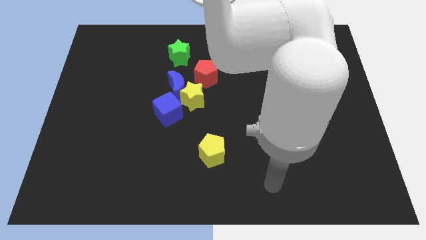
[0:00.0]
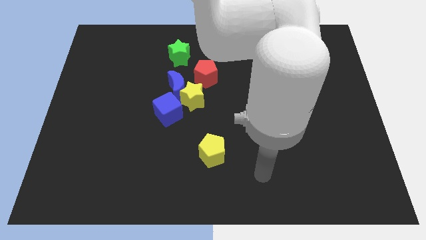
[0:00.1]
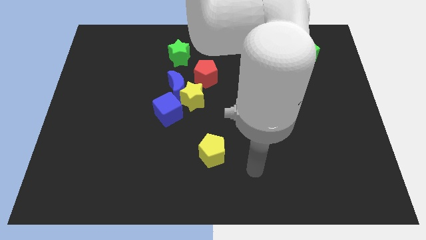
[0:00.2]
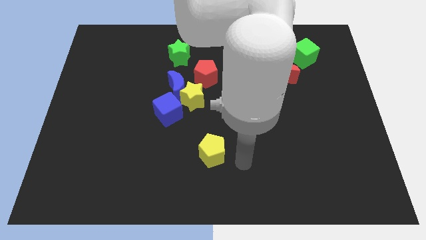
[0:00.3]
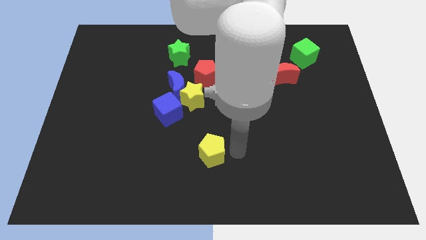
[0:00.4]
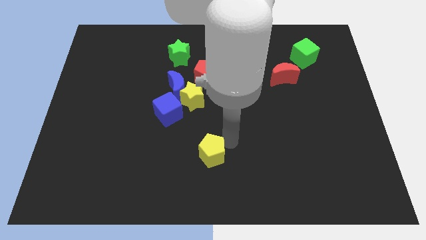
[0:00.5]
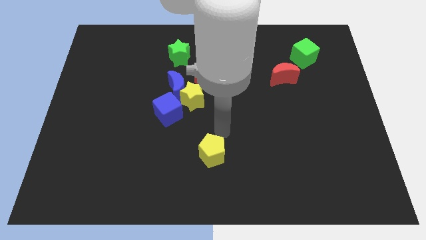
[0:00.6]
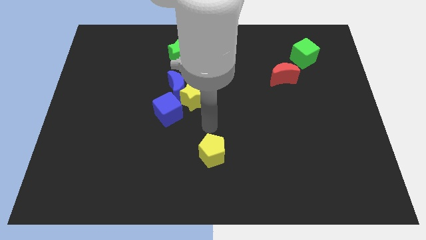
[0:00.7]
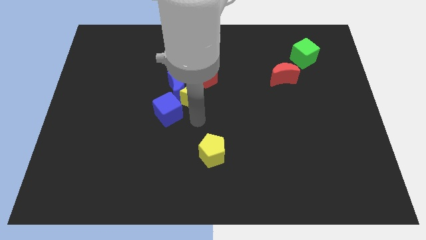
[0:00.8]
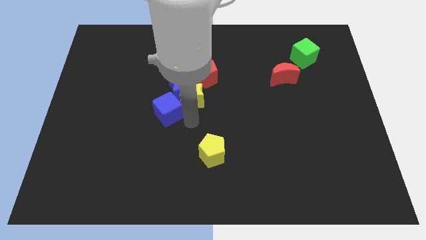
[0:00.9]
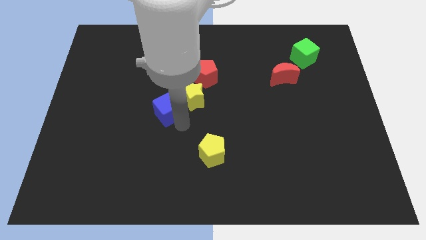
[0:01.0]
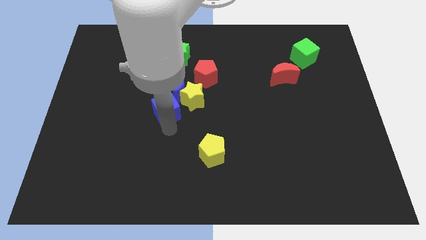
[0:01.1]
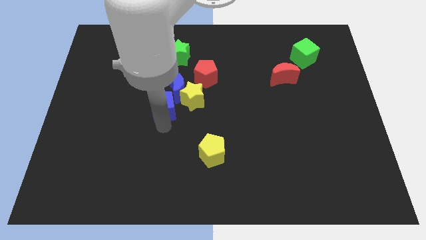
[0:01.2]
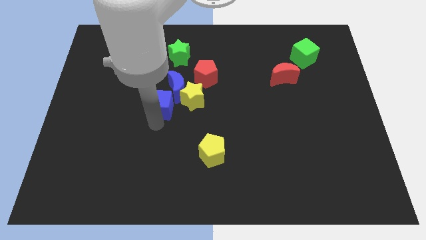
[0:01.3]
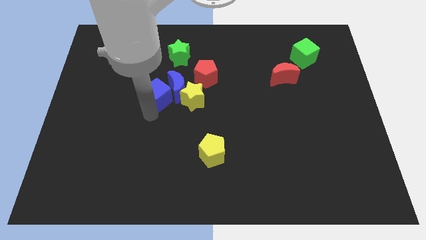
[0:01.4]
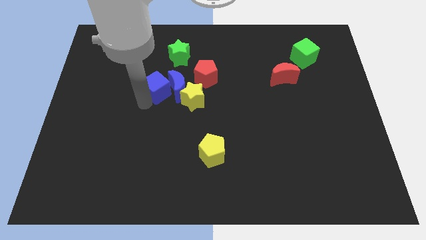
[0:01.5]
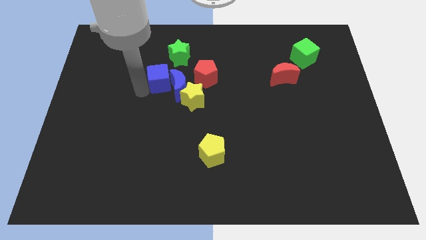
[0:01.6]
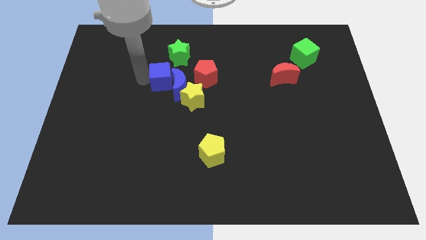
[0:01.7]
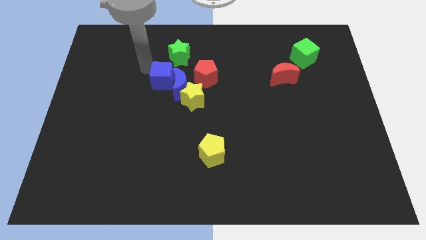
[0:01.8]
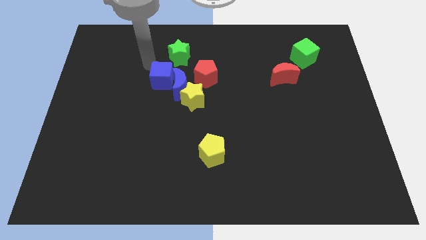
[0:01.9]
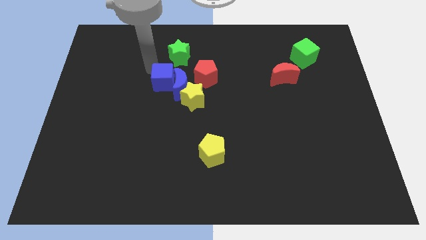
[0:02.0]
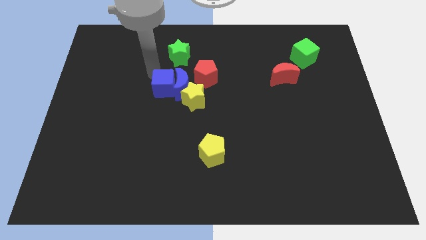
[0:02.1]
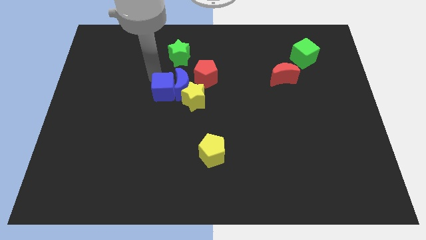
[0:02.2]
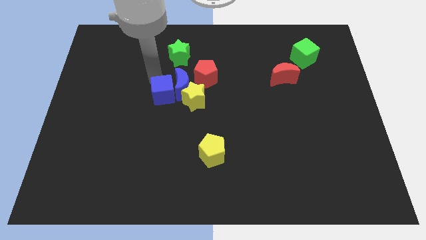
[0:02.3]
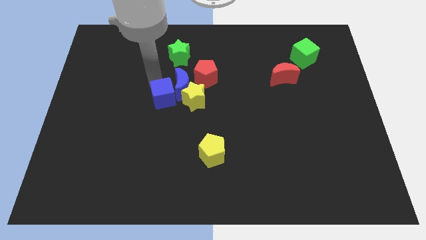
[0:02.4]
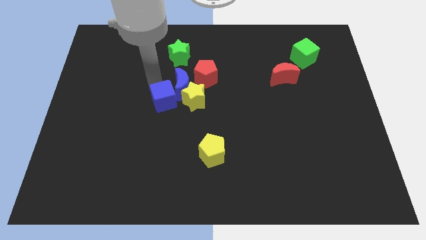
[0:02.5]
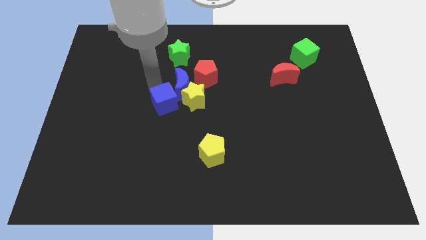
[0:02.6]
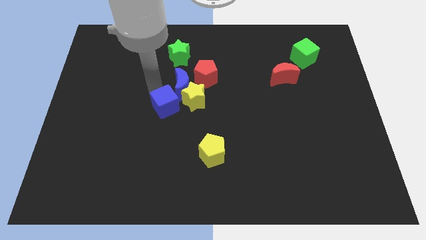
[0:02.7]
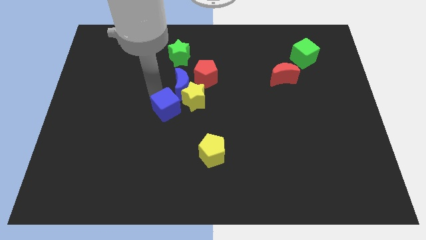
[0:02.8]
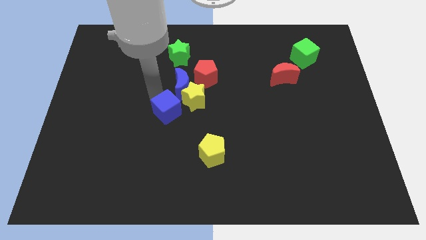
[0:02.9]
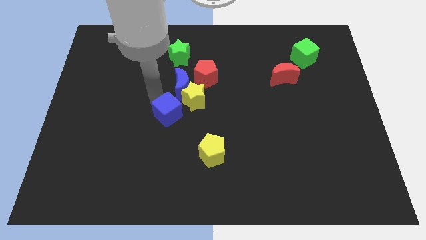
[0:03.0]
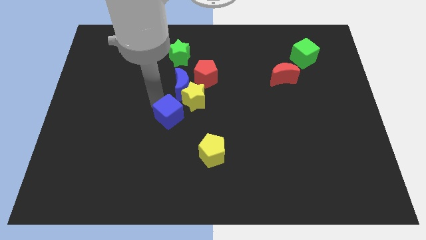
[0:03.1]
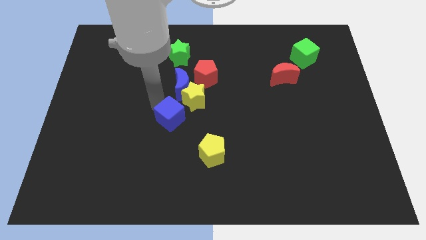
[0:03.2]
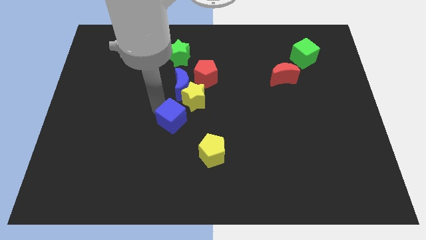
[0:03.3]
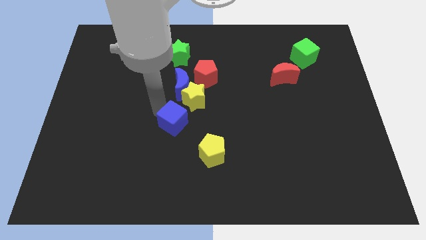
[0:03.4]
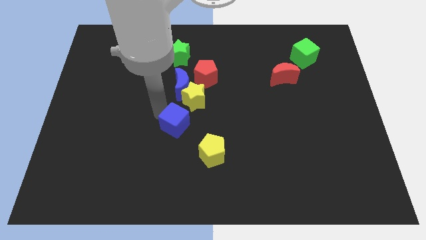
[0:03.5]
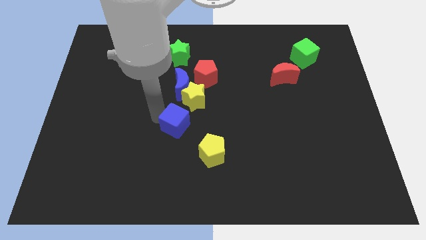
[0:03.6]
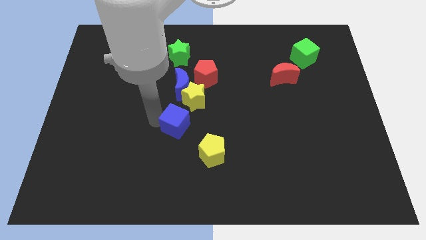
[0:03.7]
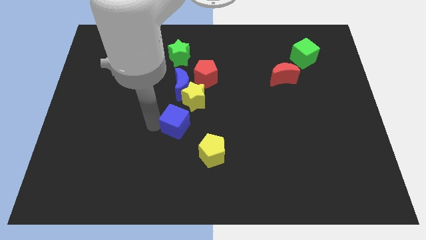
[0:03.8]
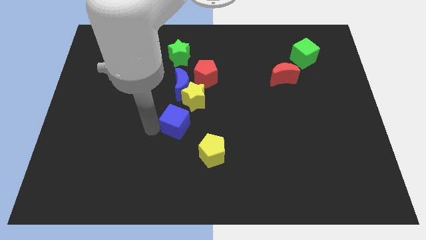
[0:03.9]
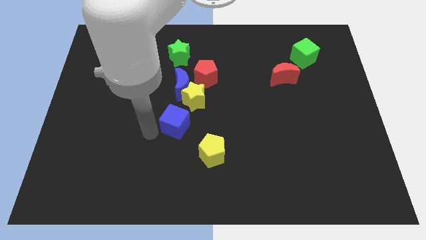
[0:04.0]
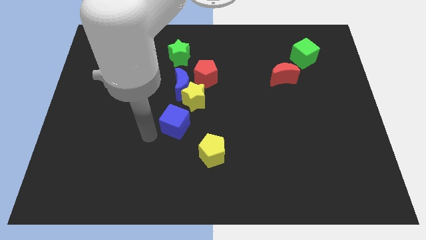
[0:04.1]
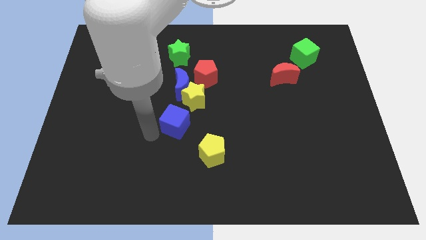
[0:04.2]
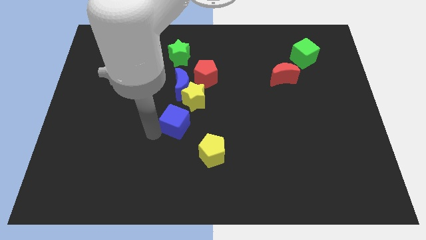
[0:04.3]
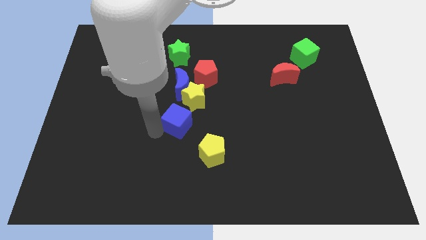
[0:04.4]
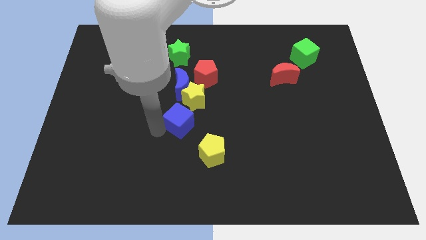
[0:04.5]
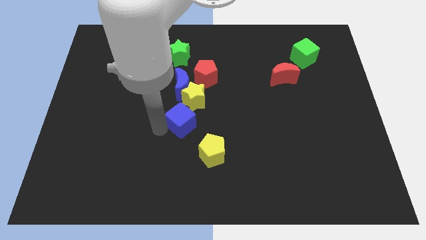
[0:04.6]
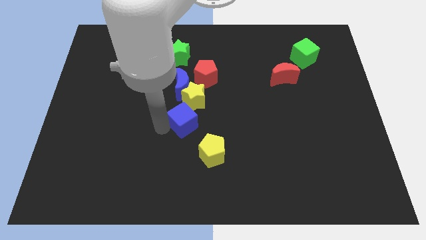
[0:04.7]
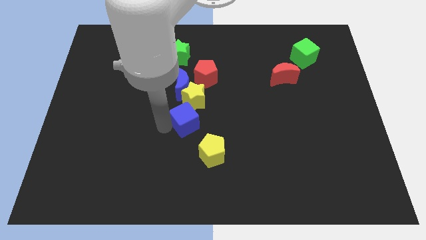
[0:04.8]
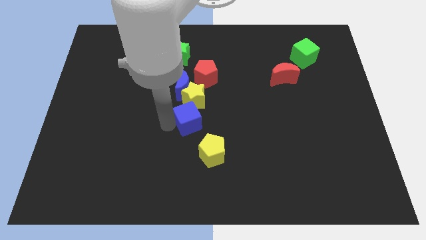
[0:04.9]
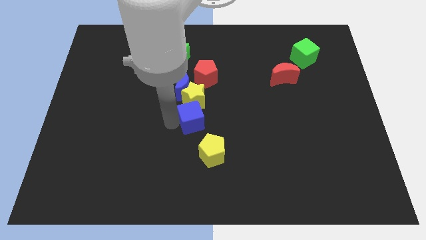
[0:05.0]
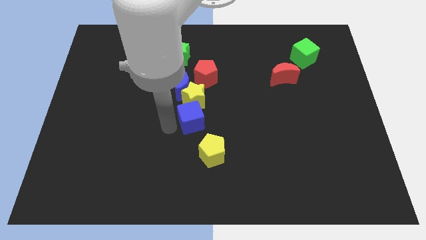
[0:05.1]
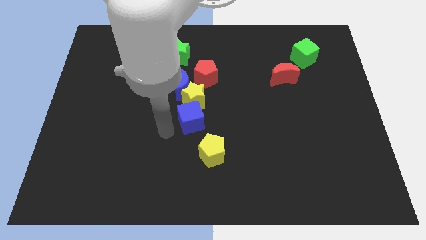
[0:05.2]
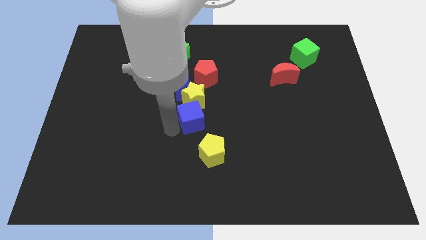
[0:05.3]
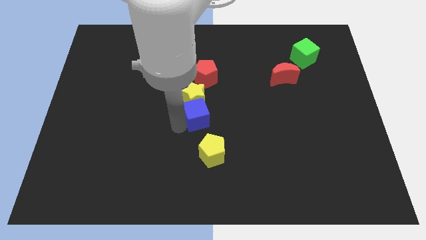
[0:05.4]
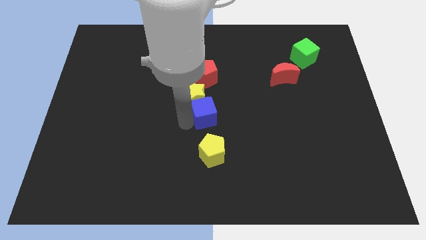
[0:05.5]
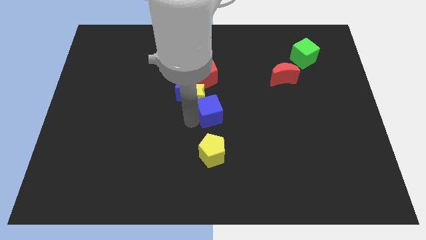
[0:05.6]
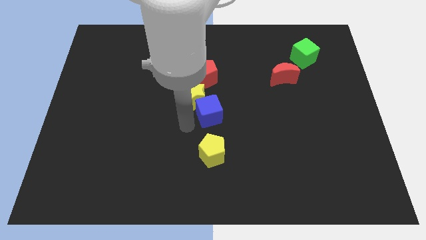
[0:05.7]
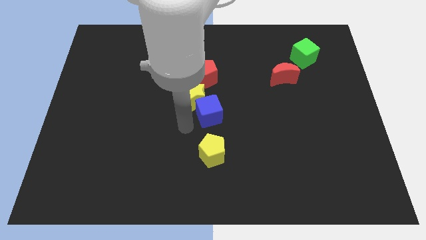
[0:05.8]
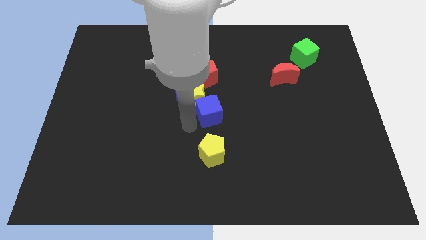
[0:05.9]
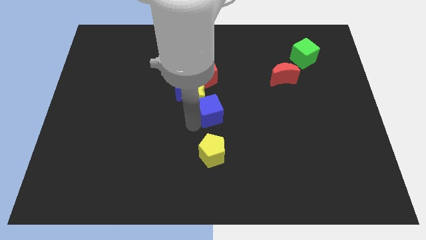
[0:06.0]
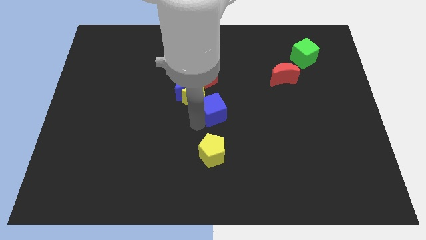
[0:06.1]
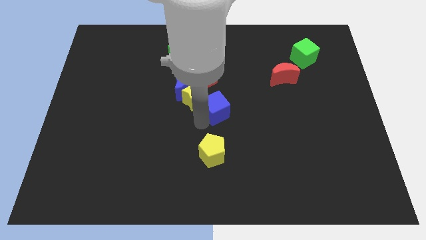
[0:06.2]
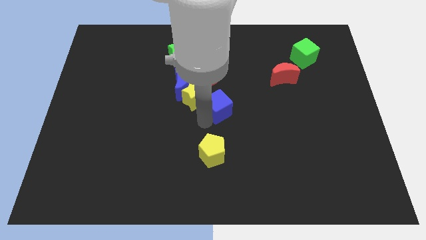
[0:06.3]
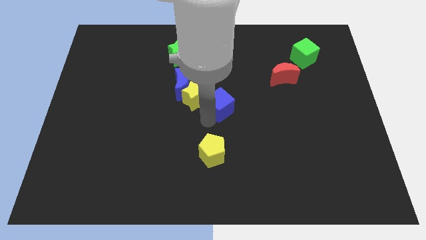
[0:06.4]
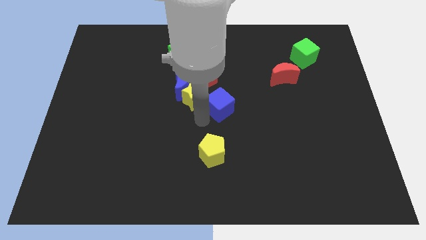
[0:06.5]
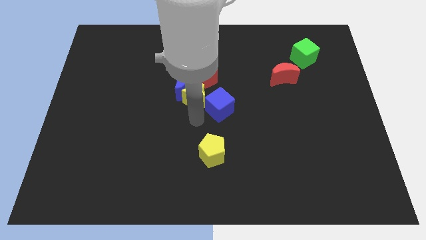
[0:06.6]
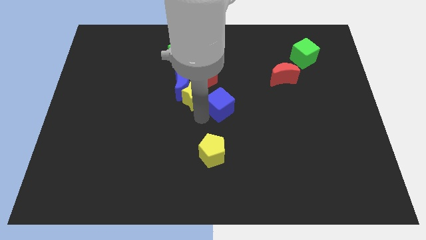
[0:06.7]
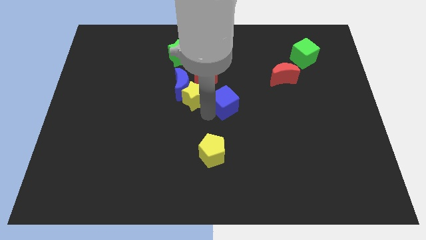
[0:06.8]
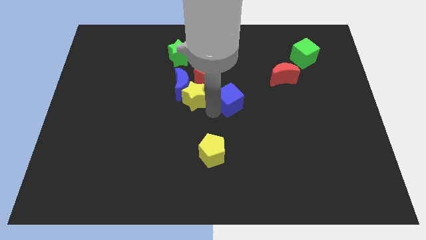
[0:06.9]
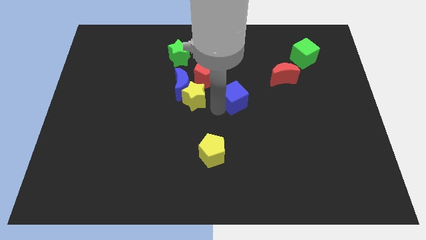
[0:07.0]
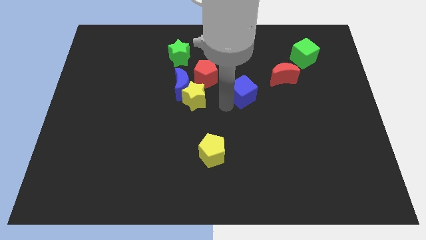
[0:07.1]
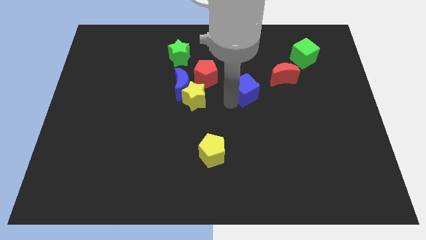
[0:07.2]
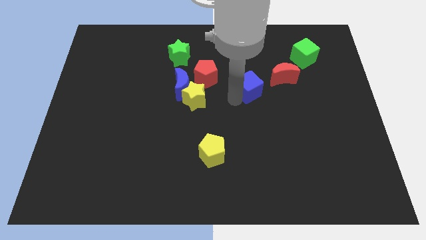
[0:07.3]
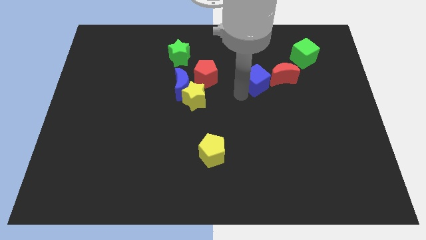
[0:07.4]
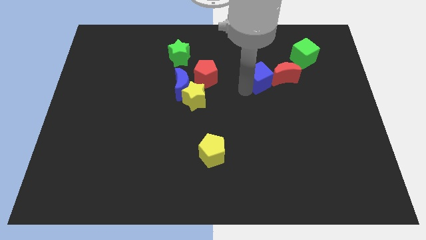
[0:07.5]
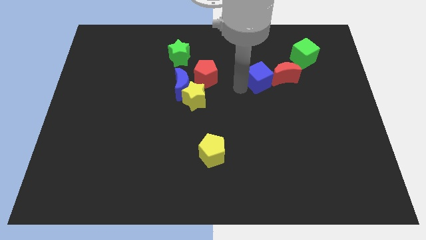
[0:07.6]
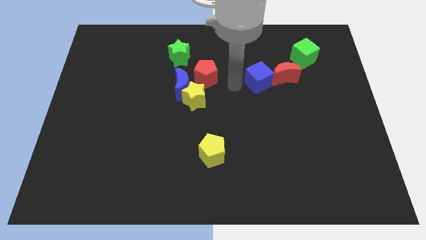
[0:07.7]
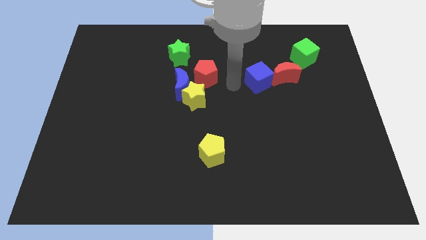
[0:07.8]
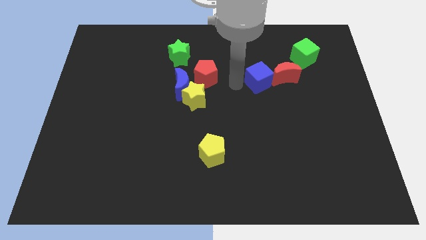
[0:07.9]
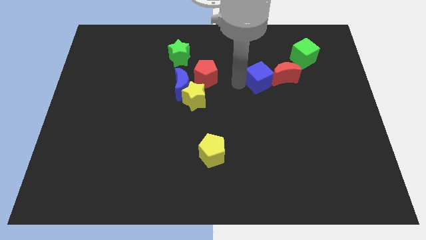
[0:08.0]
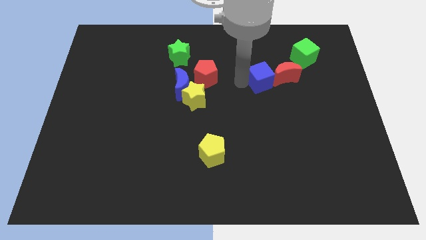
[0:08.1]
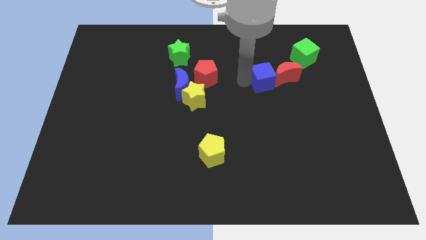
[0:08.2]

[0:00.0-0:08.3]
push the blue cube to the red moon
